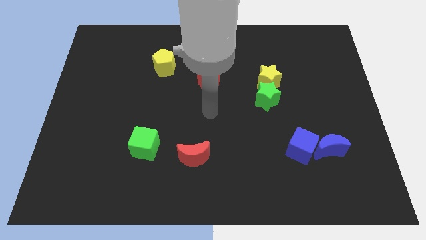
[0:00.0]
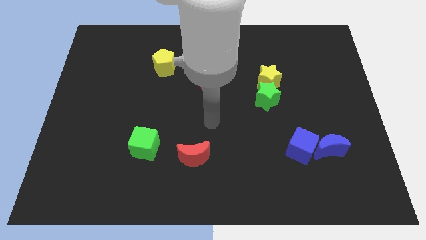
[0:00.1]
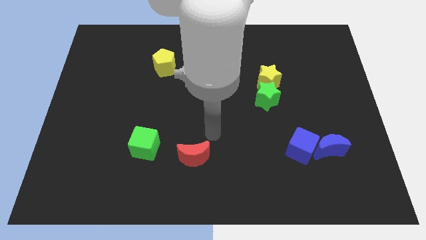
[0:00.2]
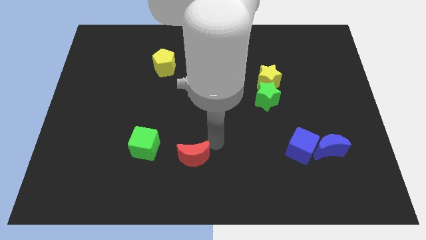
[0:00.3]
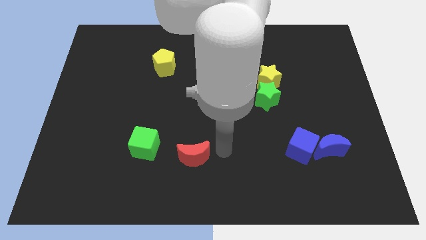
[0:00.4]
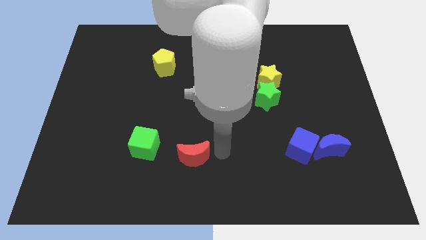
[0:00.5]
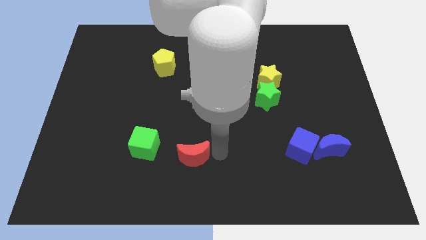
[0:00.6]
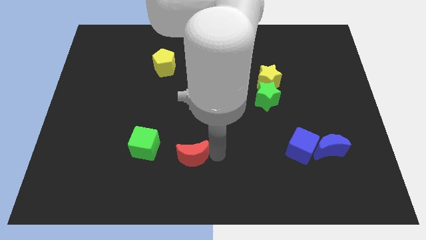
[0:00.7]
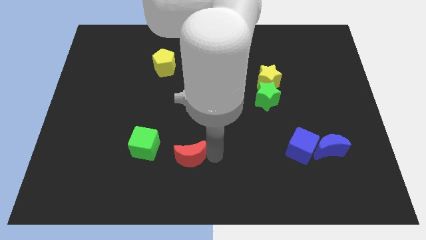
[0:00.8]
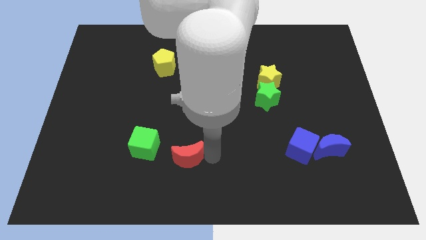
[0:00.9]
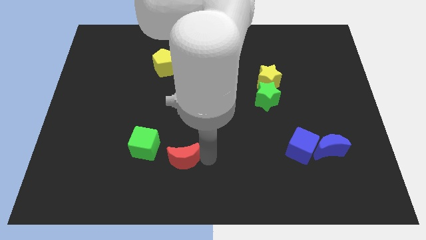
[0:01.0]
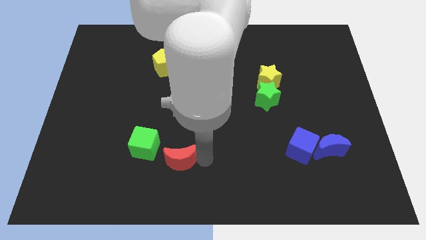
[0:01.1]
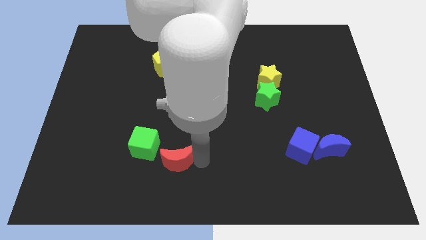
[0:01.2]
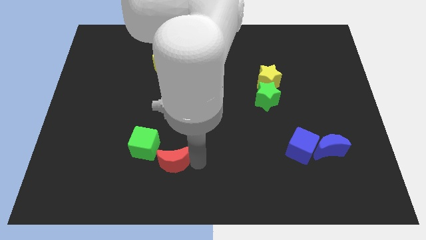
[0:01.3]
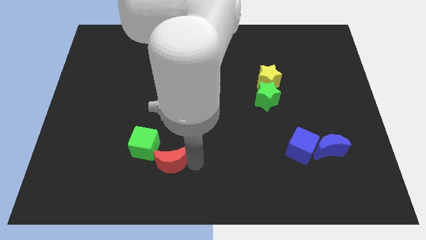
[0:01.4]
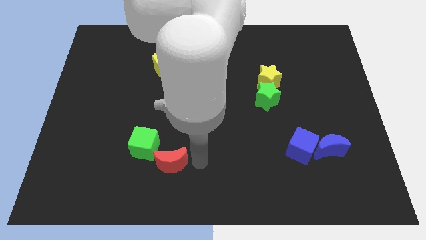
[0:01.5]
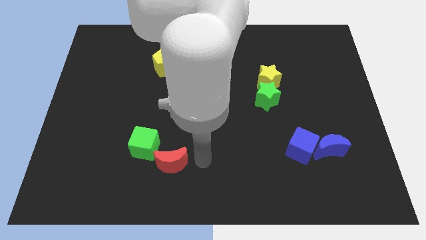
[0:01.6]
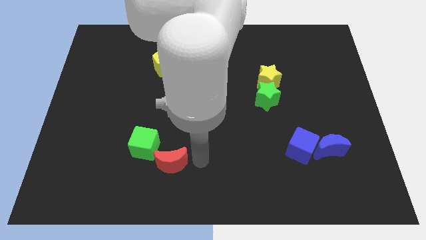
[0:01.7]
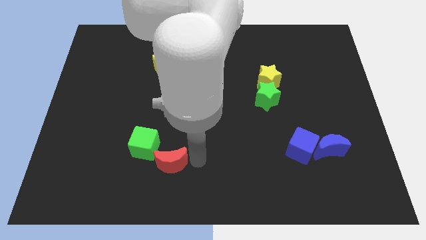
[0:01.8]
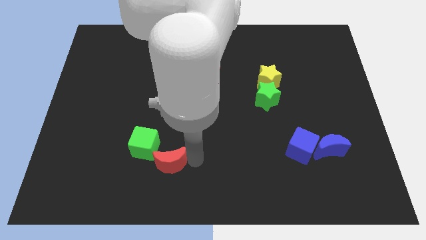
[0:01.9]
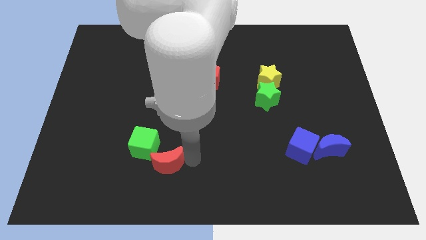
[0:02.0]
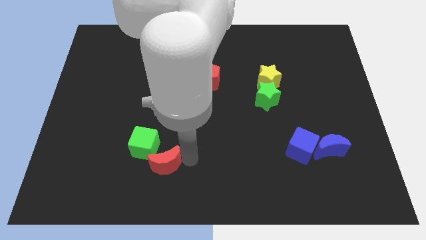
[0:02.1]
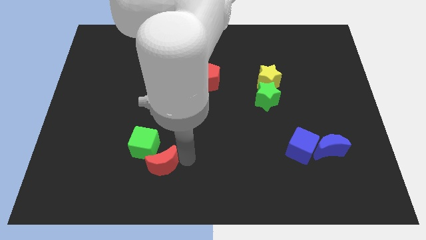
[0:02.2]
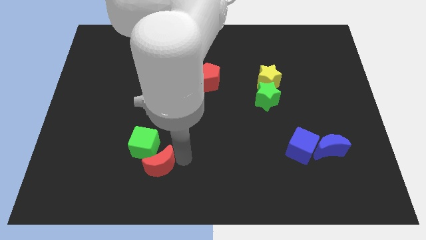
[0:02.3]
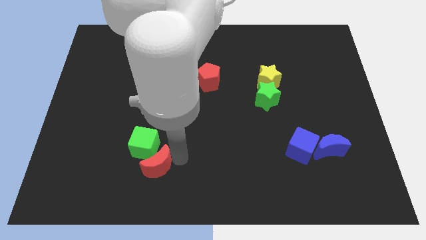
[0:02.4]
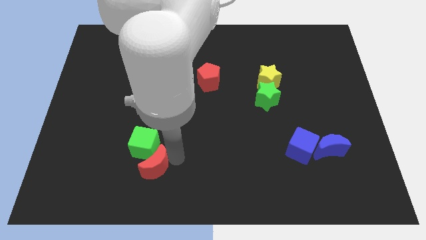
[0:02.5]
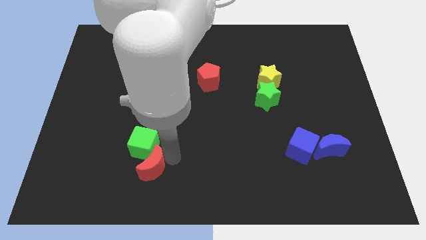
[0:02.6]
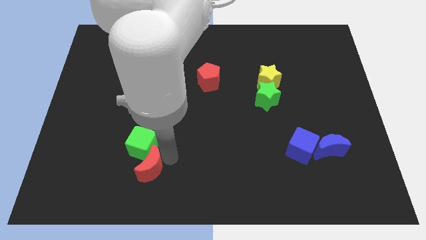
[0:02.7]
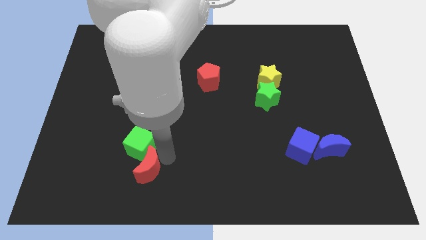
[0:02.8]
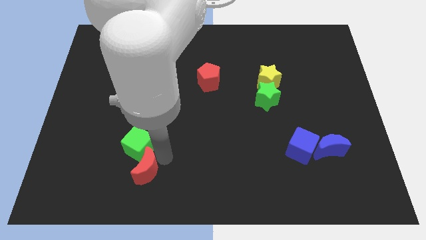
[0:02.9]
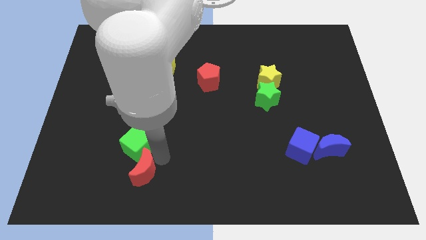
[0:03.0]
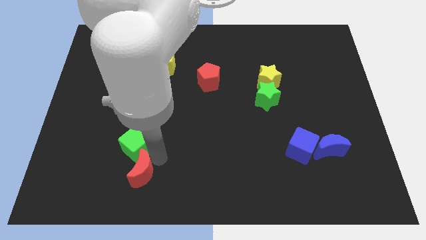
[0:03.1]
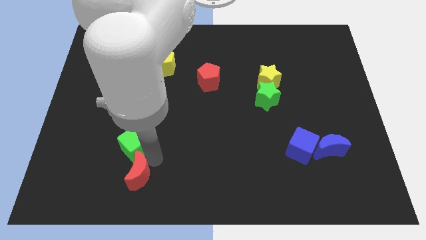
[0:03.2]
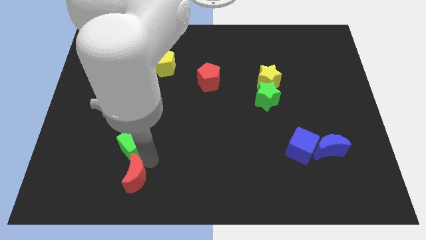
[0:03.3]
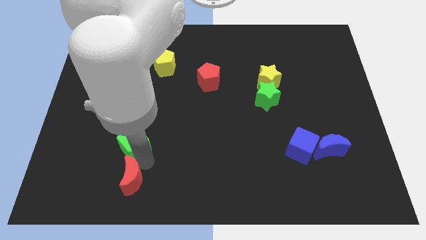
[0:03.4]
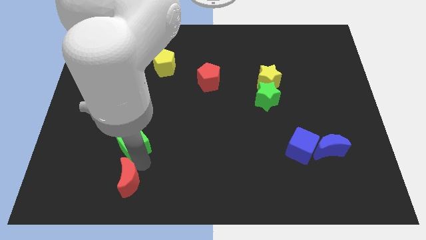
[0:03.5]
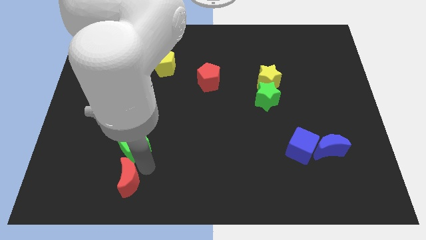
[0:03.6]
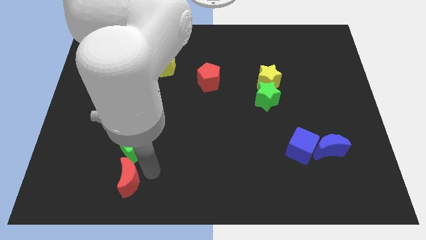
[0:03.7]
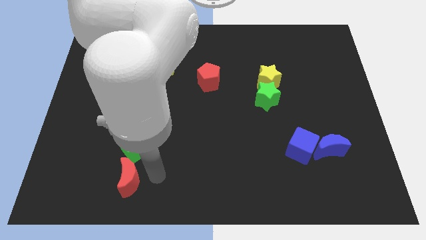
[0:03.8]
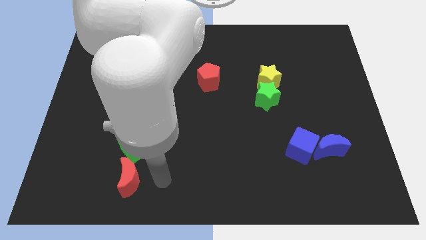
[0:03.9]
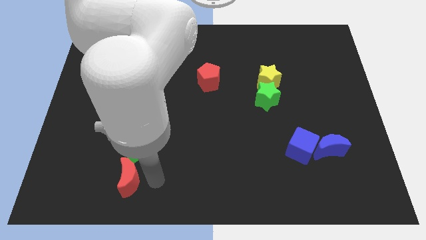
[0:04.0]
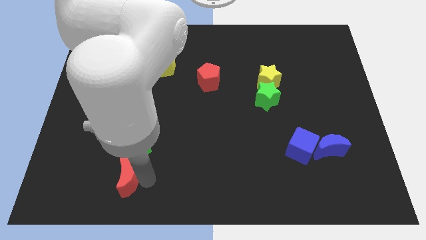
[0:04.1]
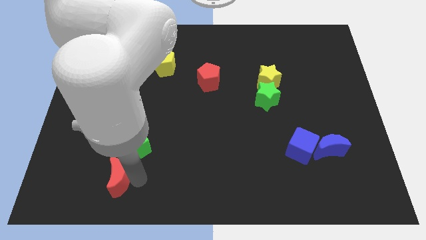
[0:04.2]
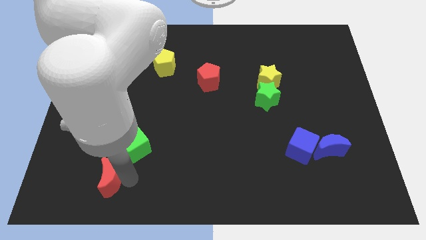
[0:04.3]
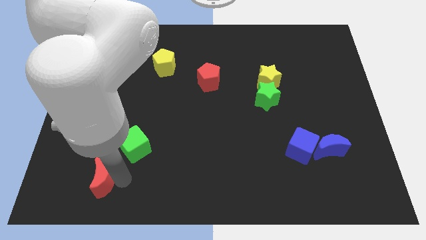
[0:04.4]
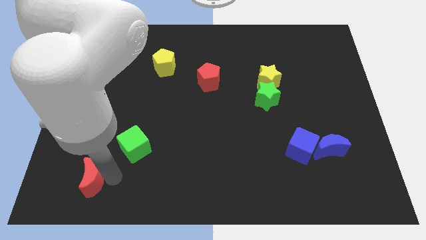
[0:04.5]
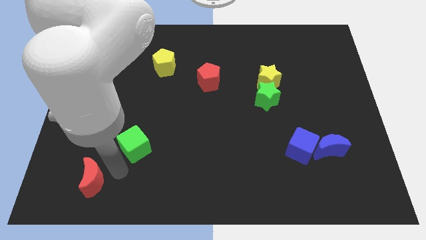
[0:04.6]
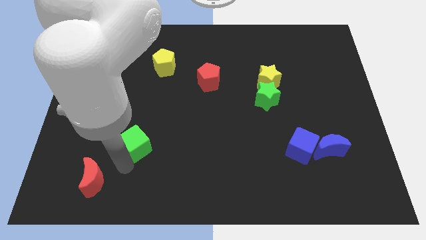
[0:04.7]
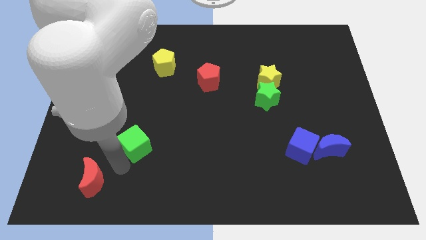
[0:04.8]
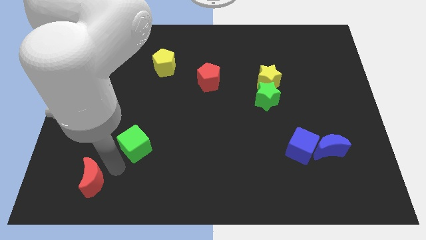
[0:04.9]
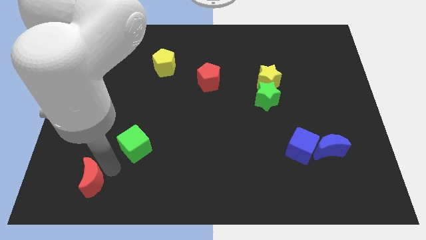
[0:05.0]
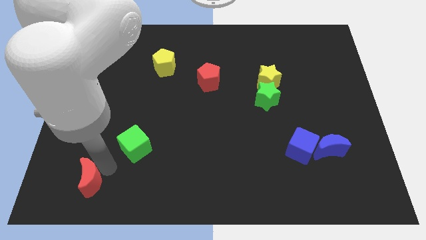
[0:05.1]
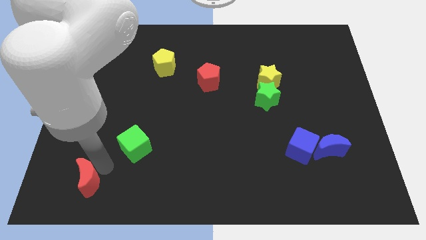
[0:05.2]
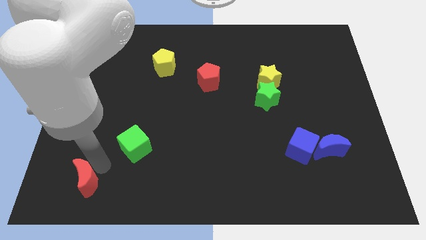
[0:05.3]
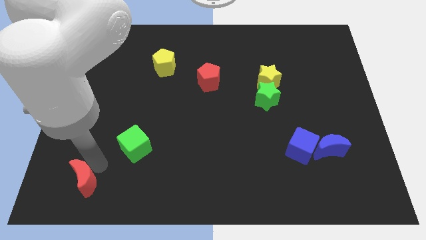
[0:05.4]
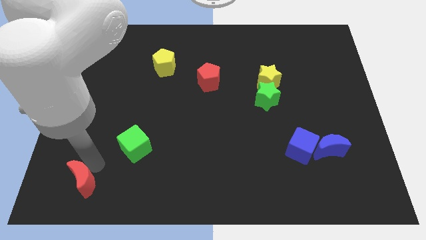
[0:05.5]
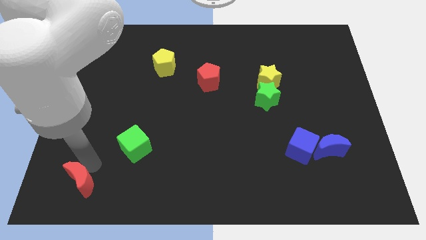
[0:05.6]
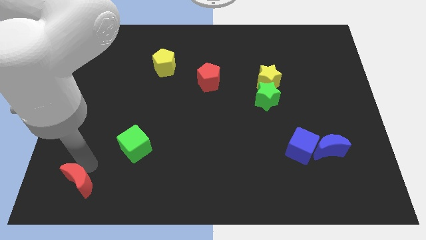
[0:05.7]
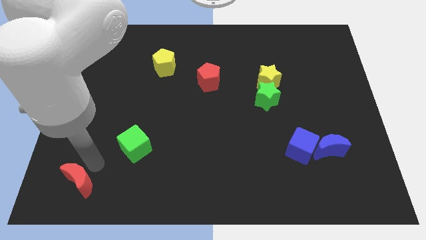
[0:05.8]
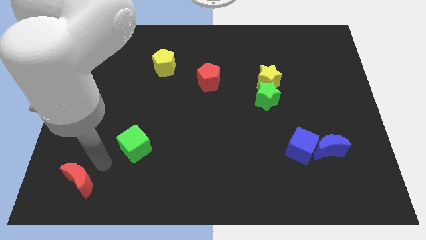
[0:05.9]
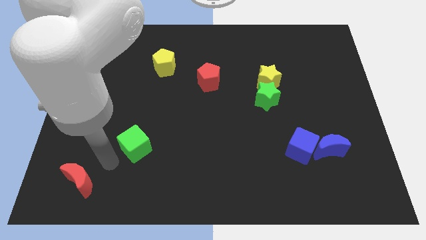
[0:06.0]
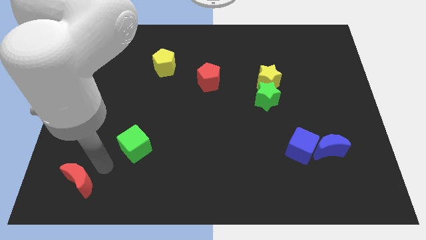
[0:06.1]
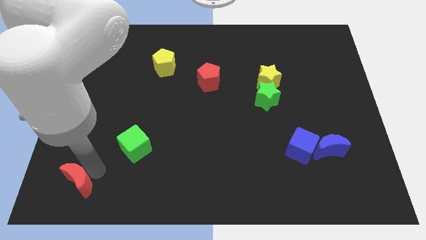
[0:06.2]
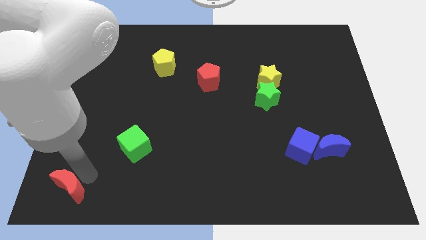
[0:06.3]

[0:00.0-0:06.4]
push the red moon to the bottom left

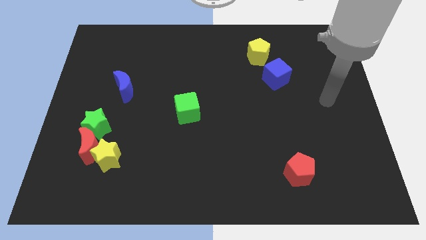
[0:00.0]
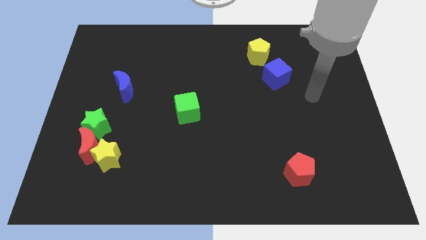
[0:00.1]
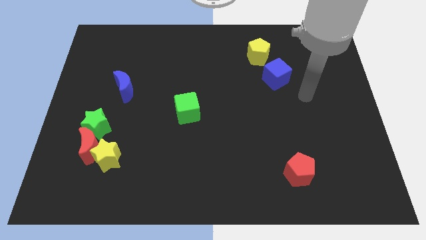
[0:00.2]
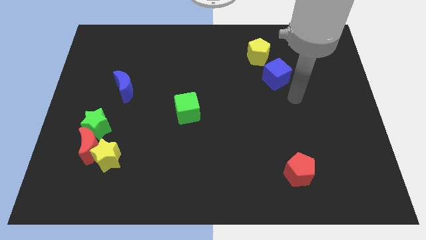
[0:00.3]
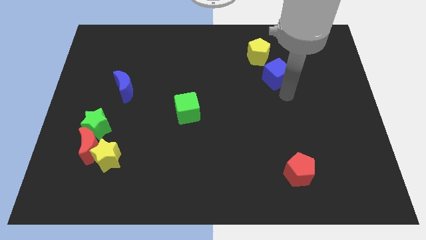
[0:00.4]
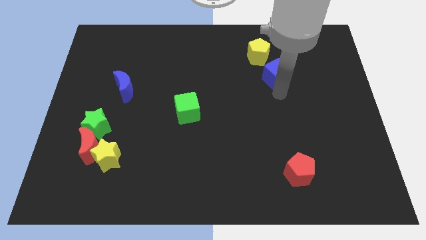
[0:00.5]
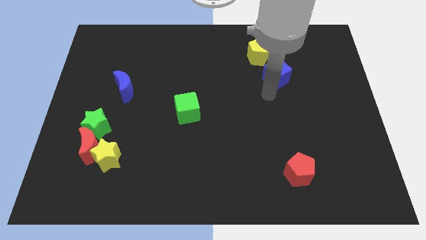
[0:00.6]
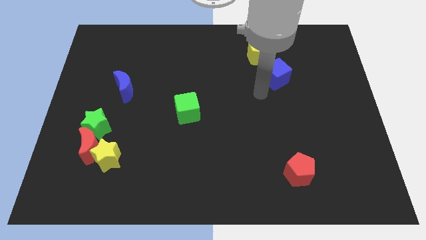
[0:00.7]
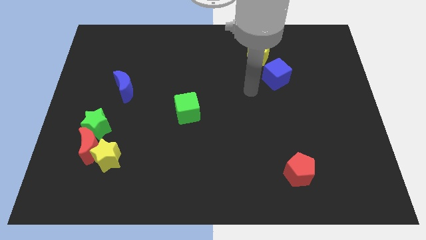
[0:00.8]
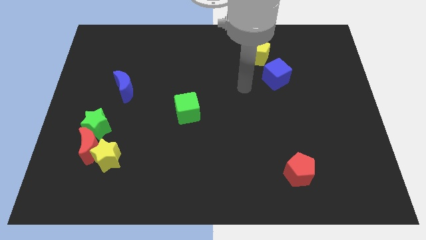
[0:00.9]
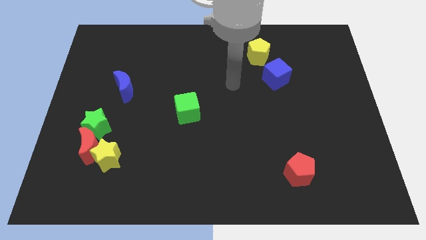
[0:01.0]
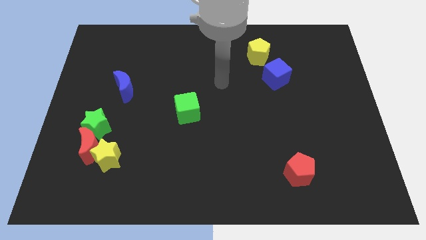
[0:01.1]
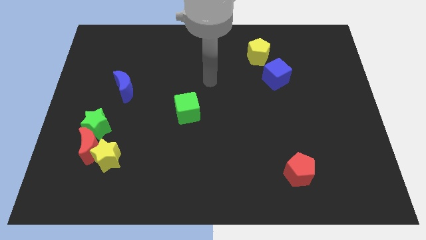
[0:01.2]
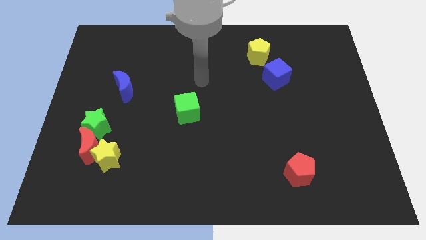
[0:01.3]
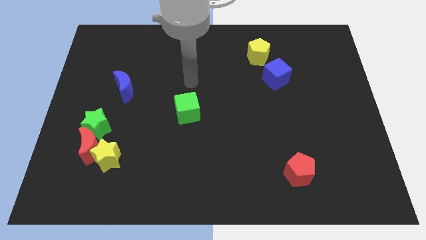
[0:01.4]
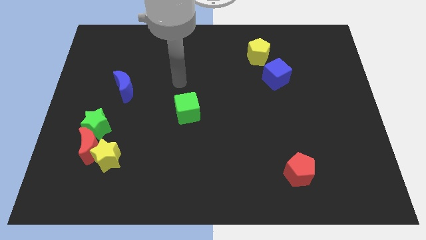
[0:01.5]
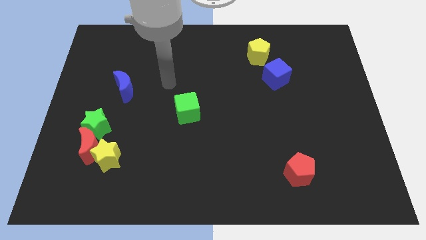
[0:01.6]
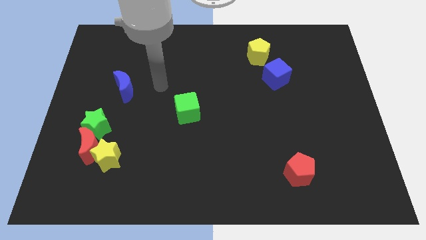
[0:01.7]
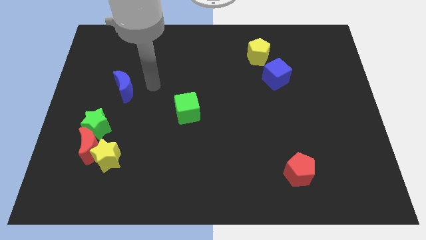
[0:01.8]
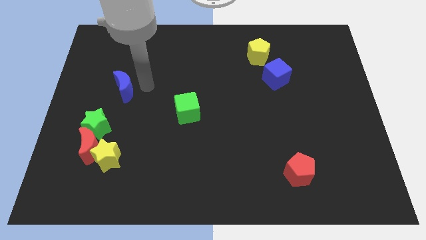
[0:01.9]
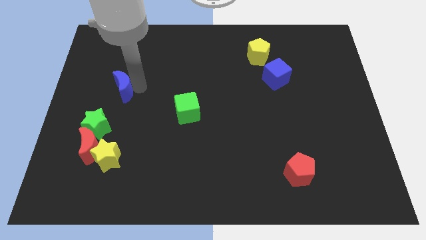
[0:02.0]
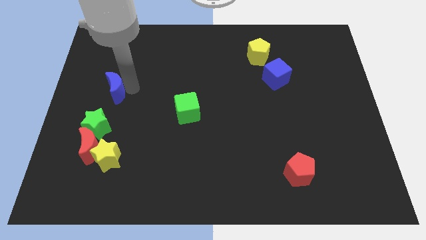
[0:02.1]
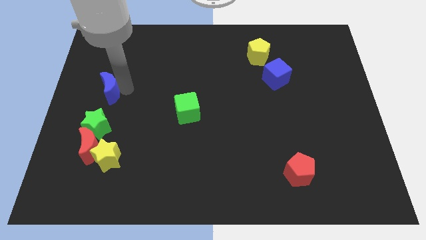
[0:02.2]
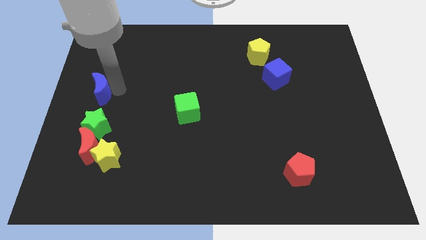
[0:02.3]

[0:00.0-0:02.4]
push the blue moon to the left side of the board
